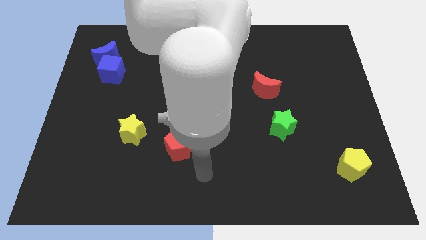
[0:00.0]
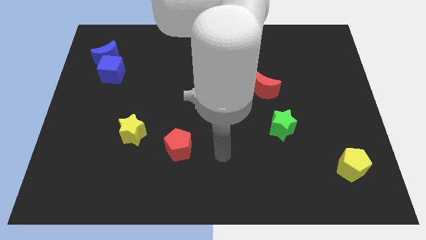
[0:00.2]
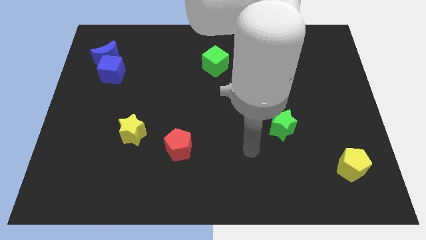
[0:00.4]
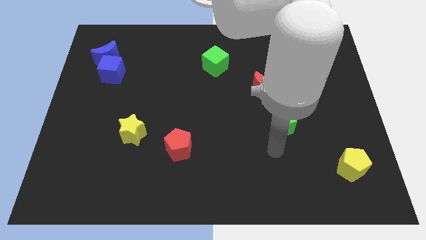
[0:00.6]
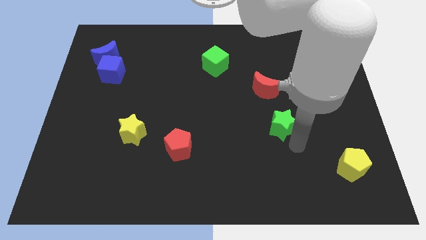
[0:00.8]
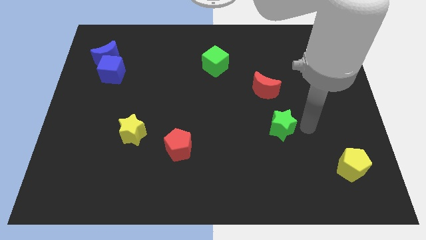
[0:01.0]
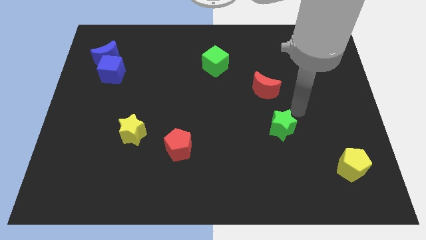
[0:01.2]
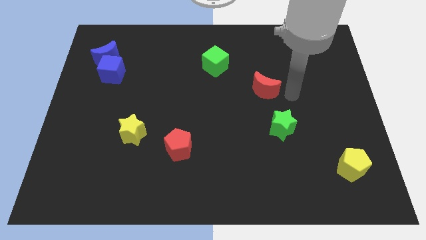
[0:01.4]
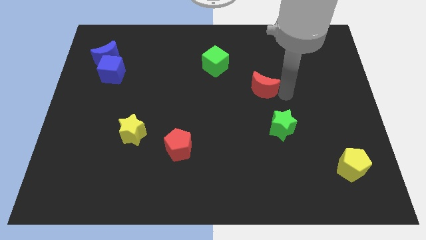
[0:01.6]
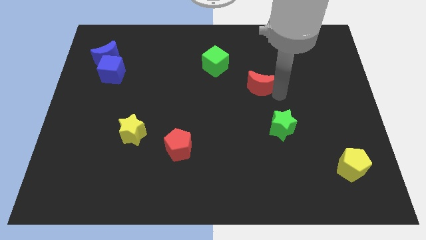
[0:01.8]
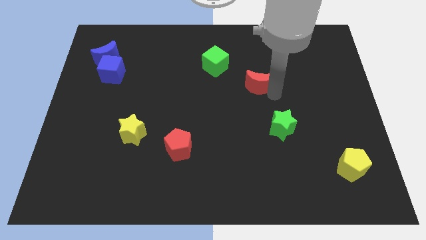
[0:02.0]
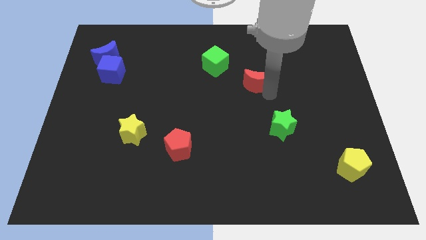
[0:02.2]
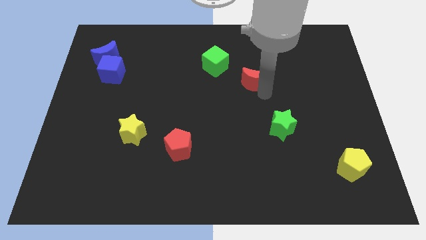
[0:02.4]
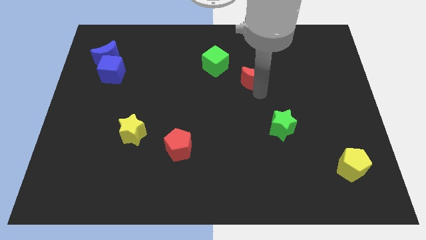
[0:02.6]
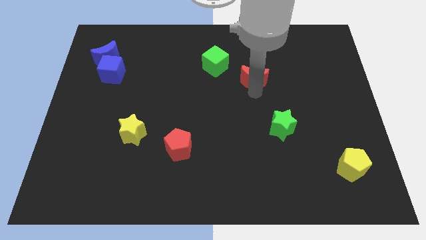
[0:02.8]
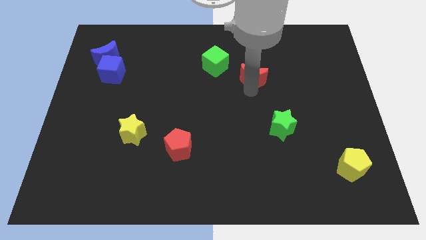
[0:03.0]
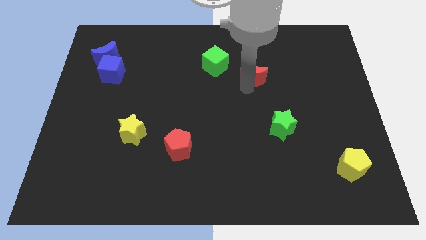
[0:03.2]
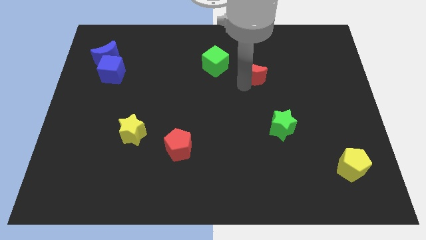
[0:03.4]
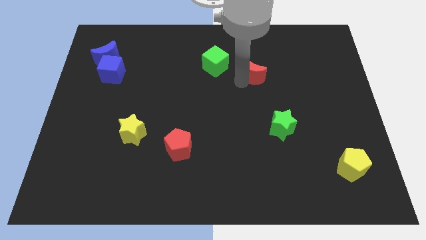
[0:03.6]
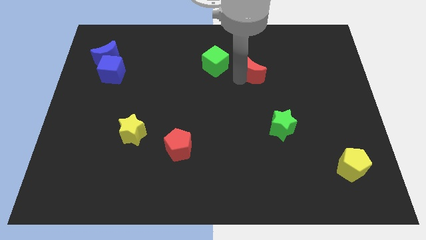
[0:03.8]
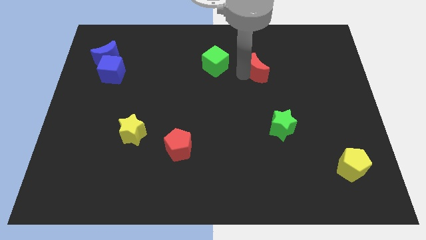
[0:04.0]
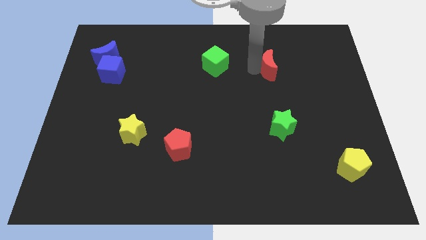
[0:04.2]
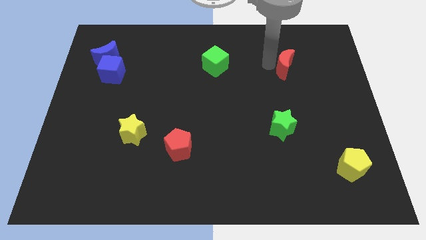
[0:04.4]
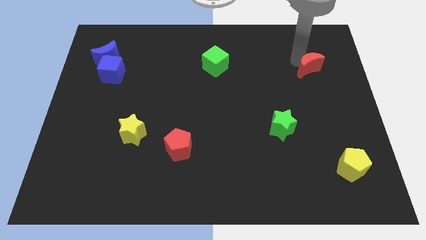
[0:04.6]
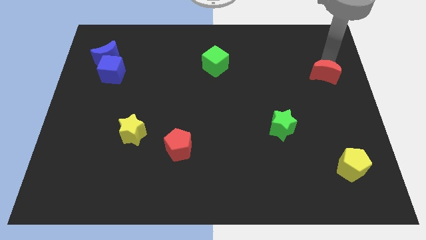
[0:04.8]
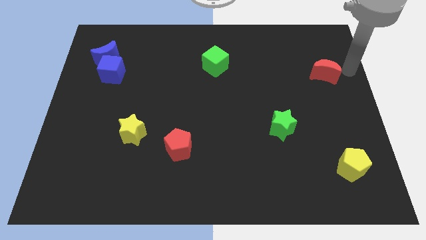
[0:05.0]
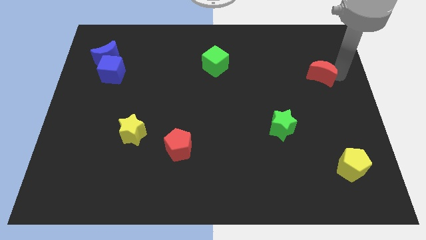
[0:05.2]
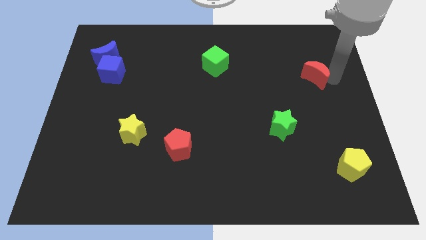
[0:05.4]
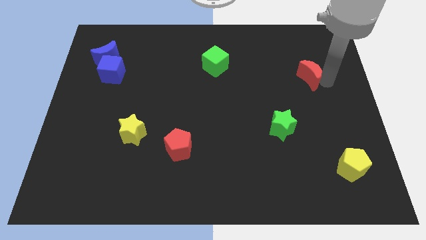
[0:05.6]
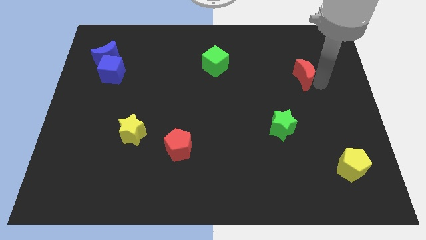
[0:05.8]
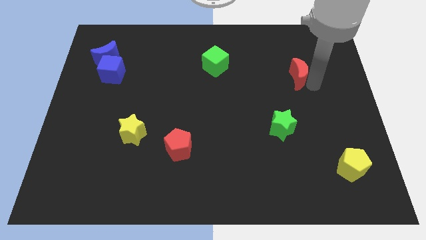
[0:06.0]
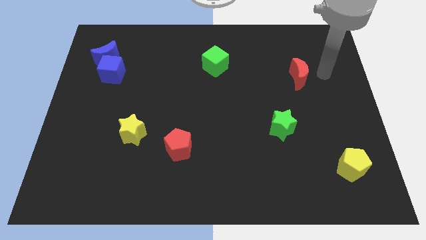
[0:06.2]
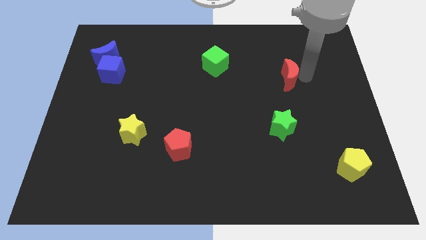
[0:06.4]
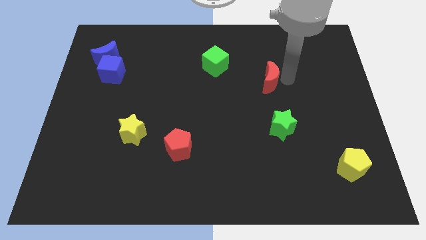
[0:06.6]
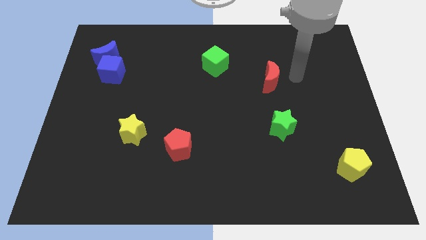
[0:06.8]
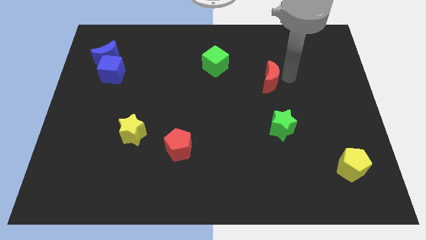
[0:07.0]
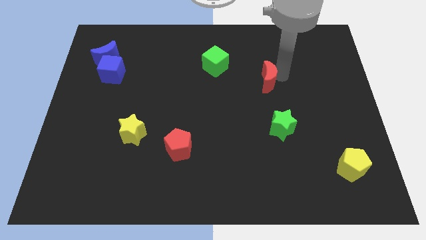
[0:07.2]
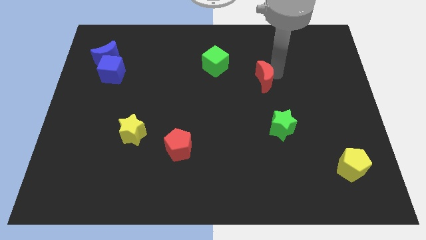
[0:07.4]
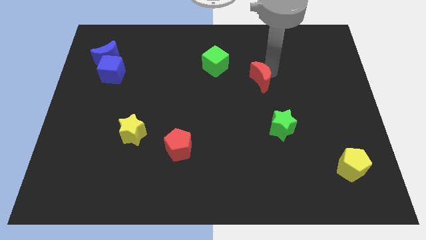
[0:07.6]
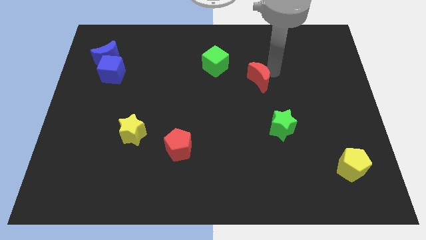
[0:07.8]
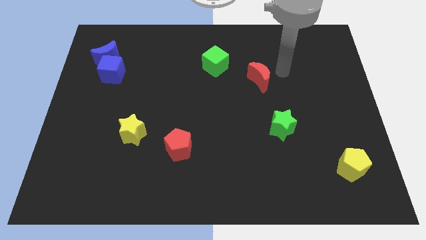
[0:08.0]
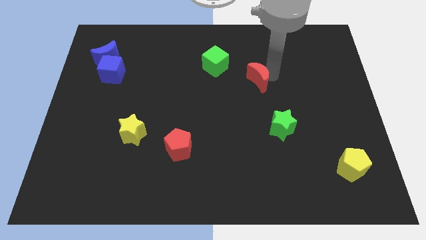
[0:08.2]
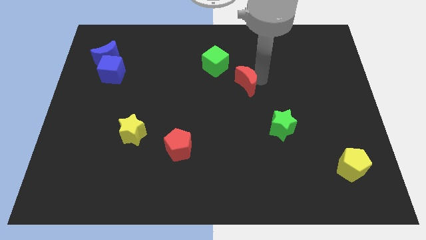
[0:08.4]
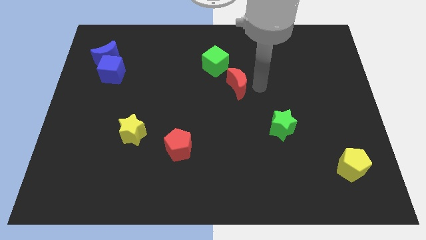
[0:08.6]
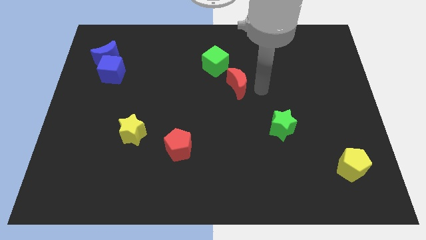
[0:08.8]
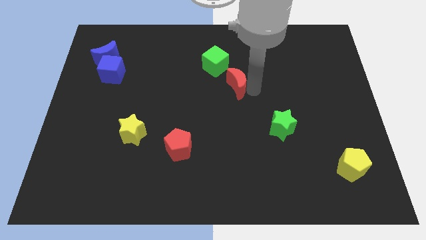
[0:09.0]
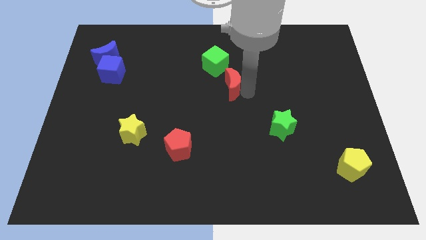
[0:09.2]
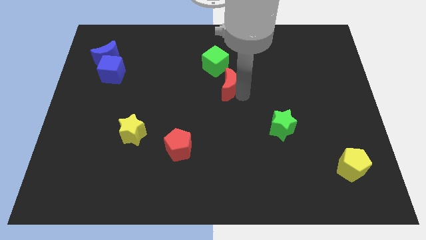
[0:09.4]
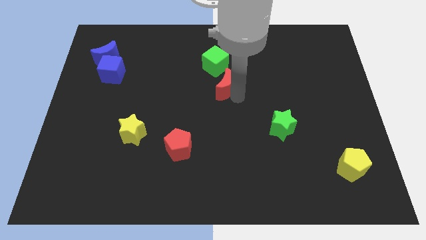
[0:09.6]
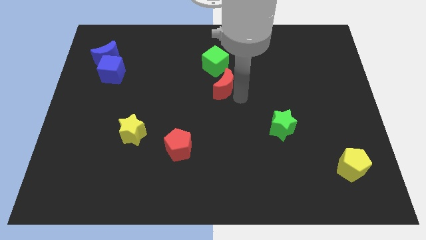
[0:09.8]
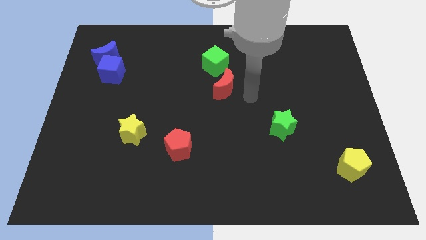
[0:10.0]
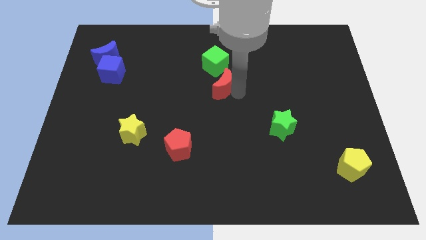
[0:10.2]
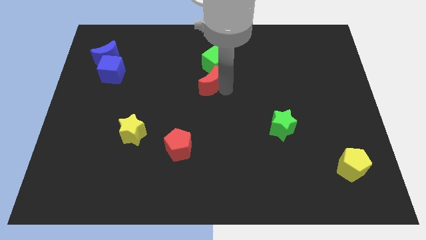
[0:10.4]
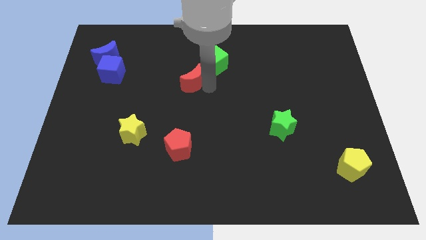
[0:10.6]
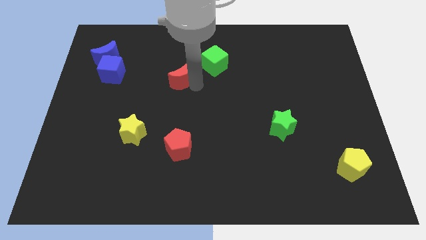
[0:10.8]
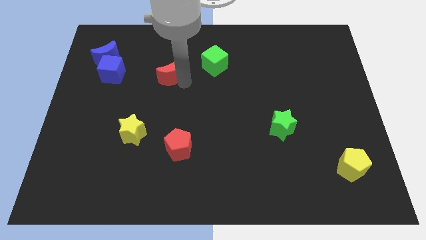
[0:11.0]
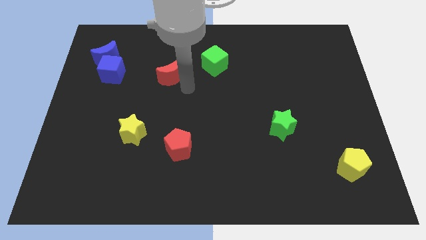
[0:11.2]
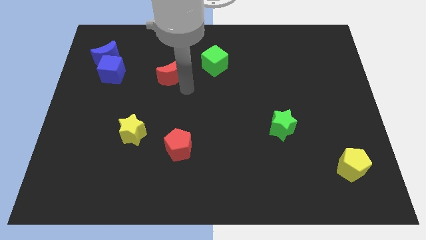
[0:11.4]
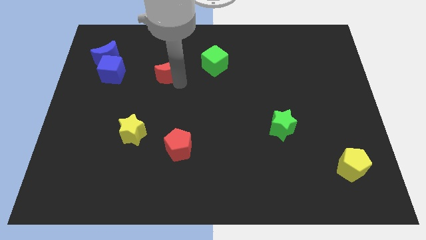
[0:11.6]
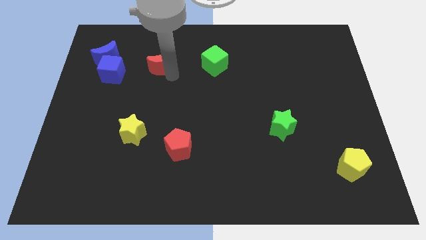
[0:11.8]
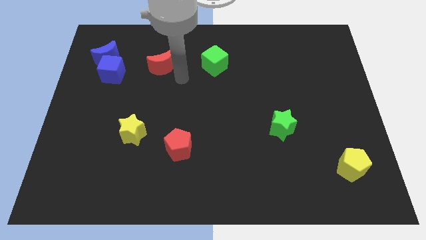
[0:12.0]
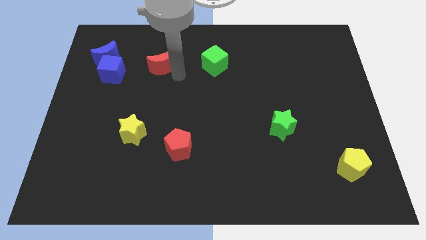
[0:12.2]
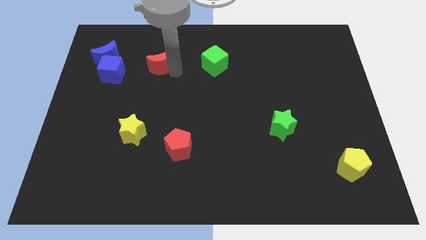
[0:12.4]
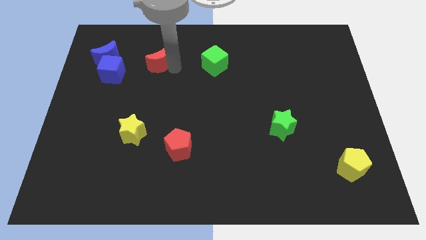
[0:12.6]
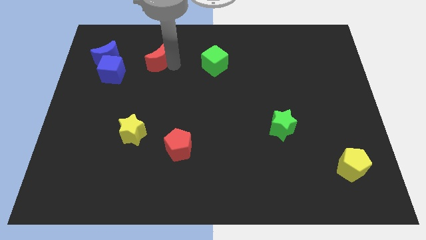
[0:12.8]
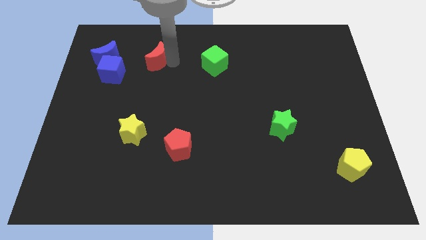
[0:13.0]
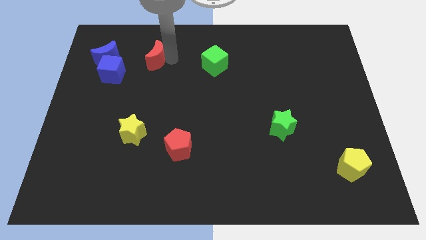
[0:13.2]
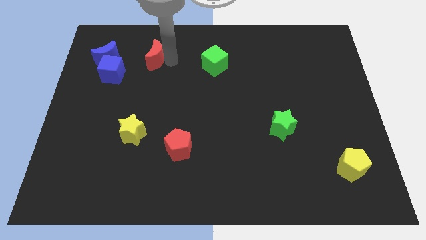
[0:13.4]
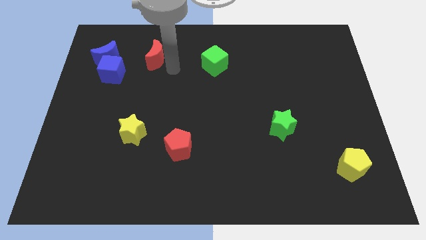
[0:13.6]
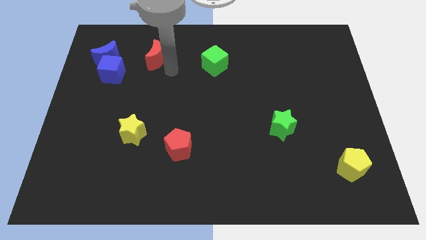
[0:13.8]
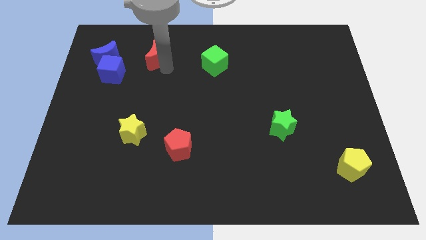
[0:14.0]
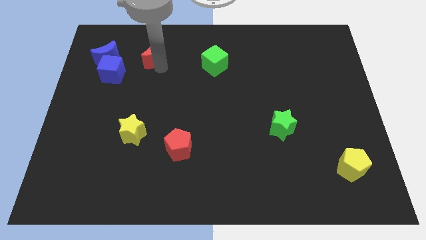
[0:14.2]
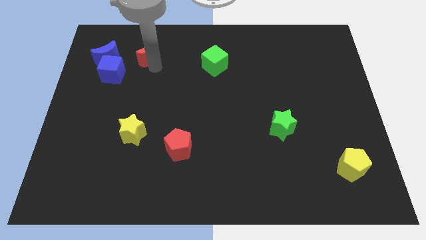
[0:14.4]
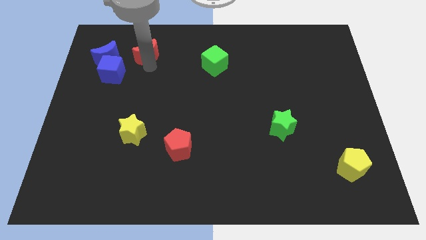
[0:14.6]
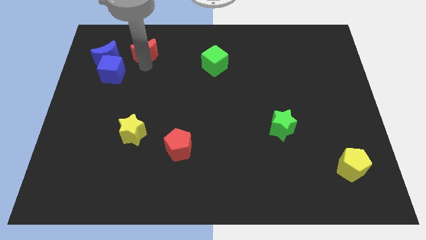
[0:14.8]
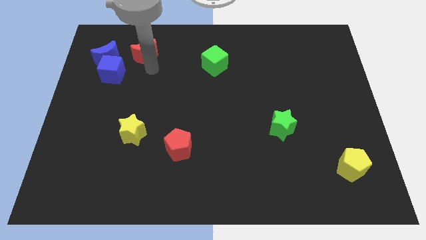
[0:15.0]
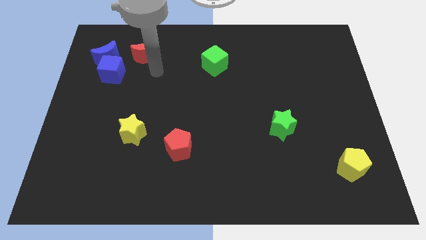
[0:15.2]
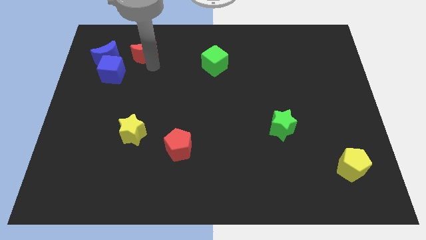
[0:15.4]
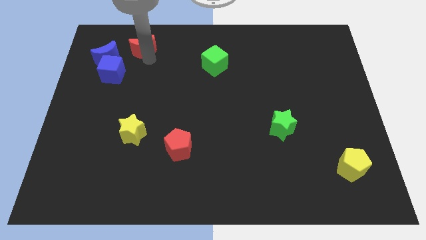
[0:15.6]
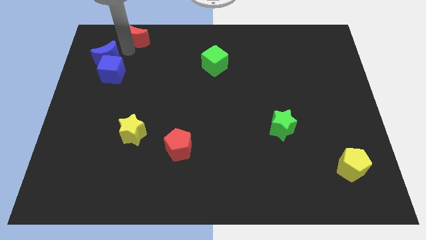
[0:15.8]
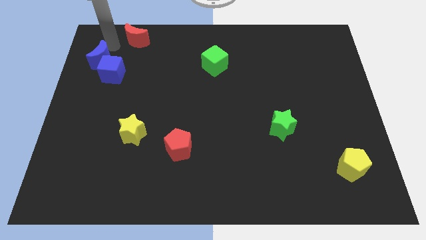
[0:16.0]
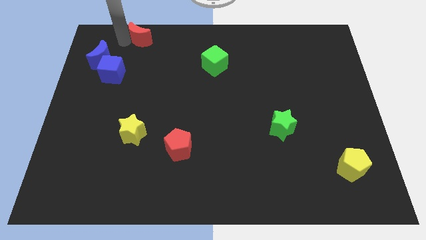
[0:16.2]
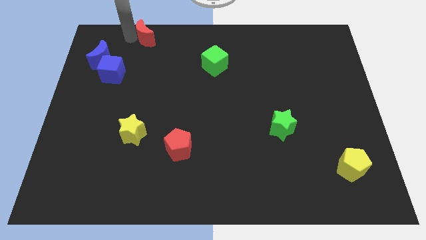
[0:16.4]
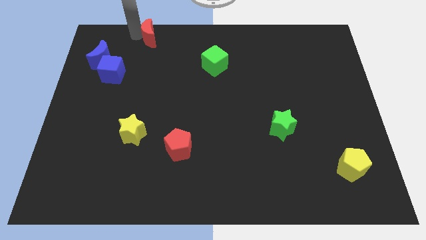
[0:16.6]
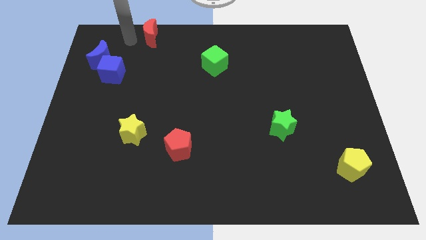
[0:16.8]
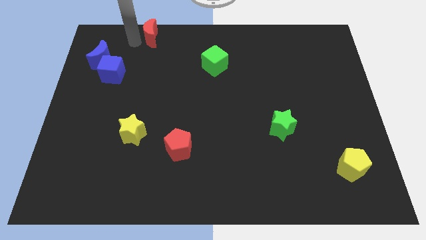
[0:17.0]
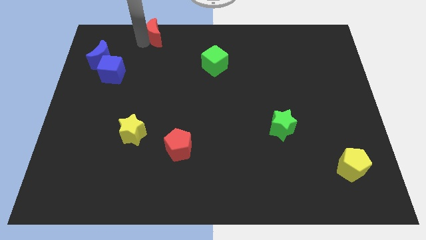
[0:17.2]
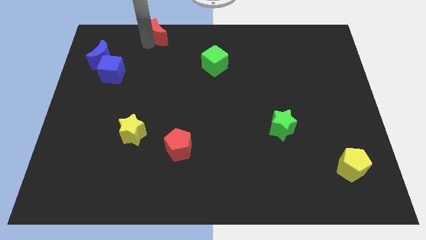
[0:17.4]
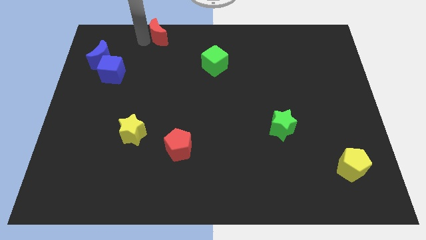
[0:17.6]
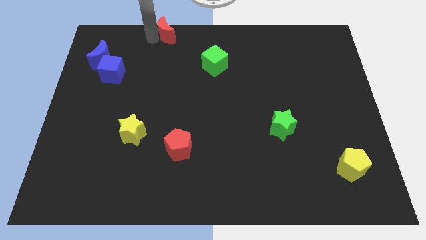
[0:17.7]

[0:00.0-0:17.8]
put the red moon to the top side
